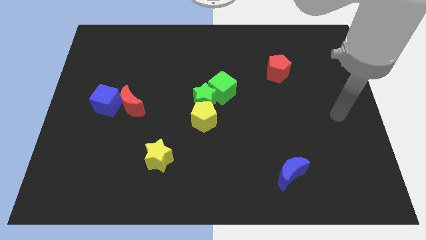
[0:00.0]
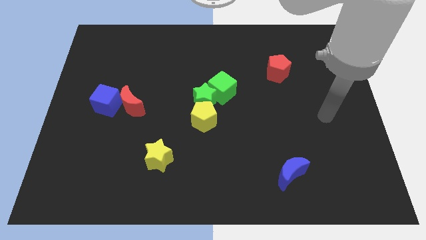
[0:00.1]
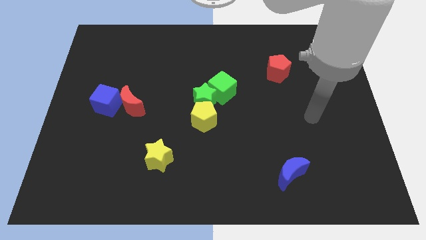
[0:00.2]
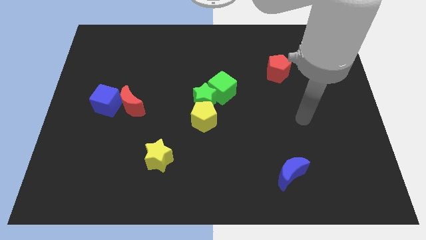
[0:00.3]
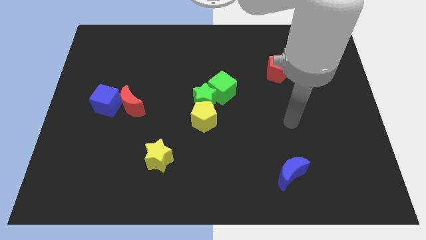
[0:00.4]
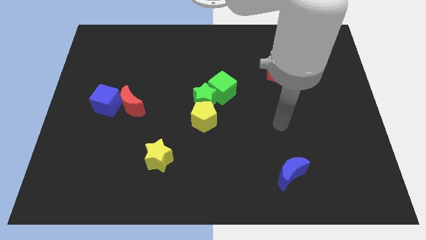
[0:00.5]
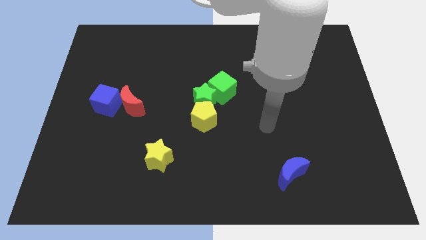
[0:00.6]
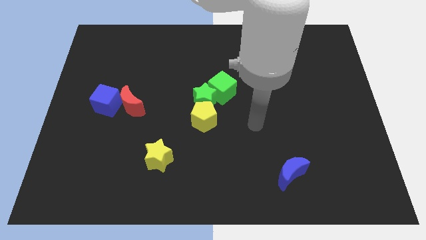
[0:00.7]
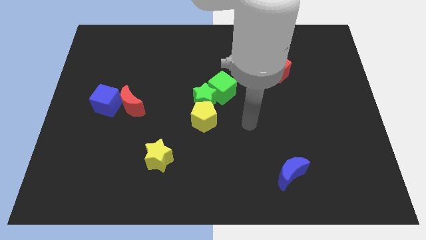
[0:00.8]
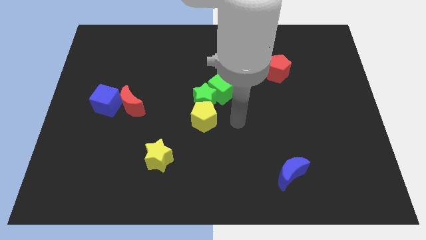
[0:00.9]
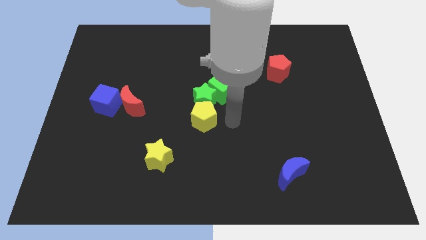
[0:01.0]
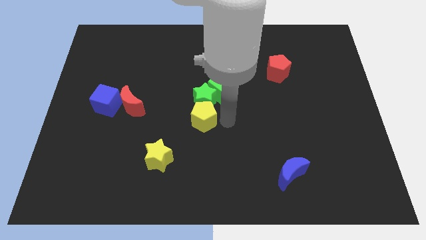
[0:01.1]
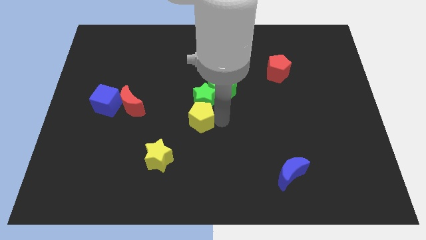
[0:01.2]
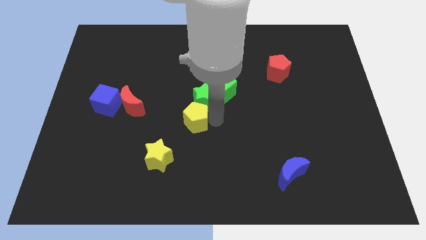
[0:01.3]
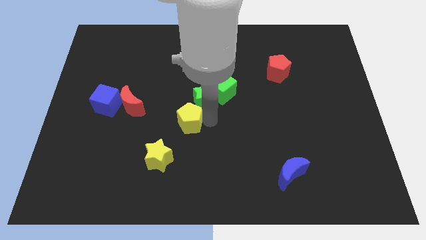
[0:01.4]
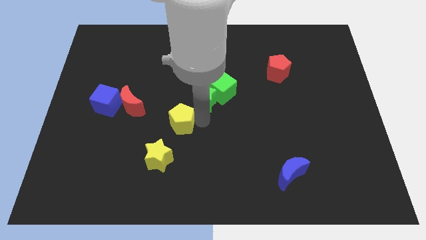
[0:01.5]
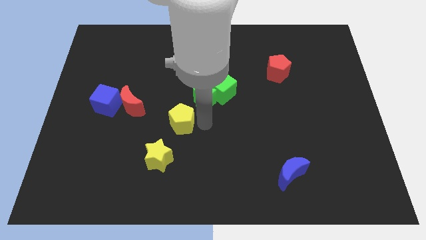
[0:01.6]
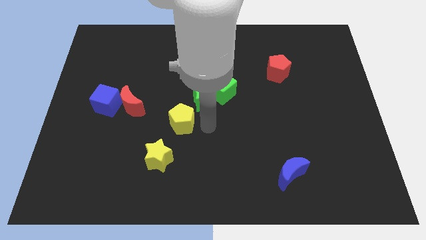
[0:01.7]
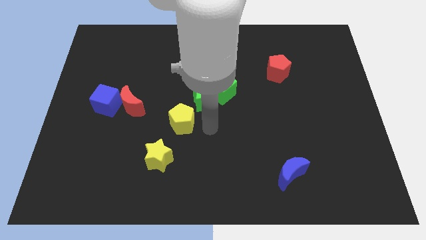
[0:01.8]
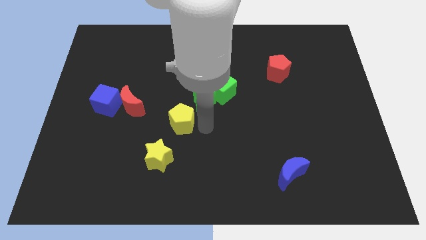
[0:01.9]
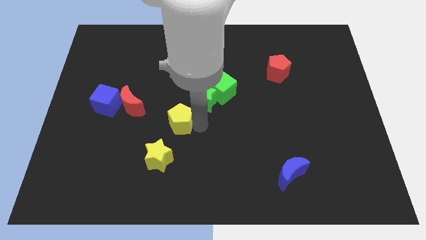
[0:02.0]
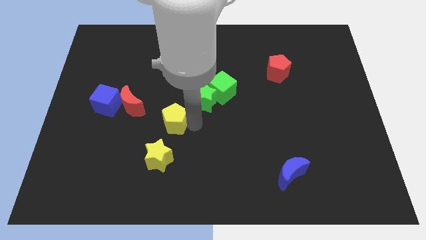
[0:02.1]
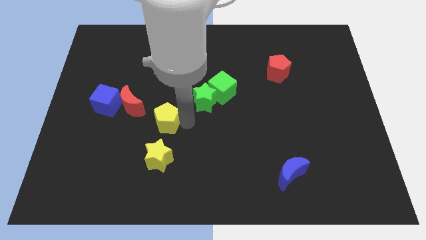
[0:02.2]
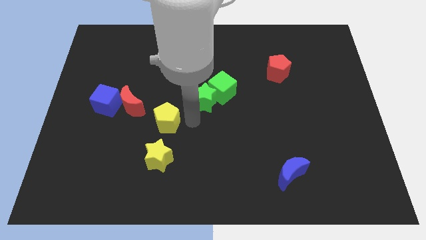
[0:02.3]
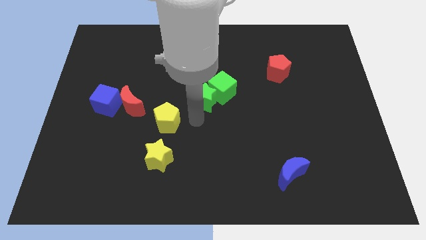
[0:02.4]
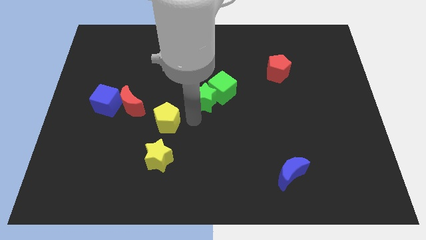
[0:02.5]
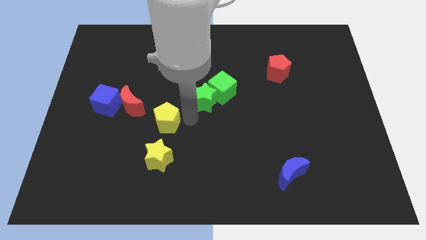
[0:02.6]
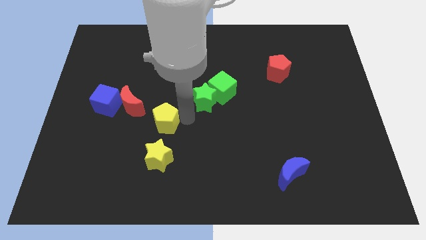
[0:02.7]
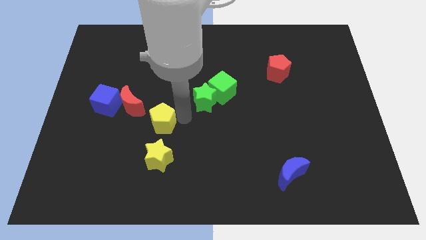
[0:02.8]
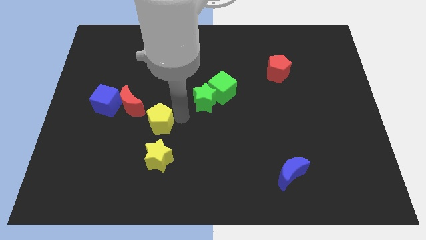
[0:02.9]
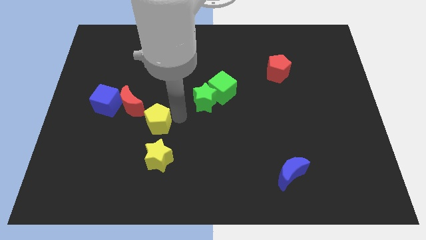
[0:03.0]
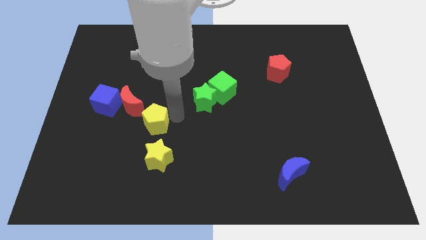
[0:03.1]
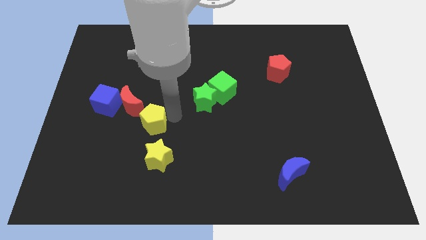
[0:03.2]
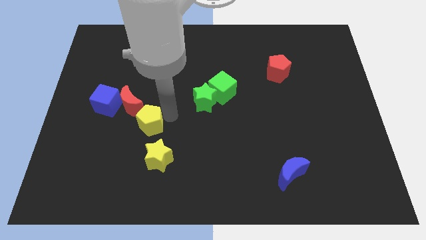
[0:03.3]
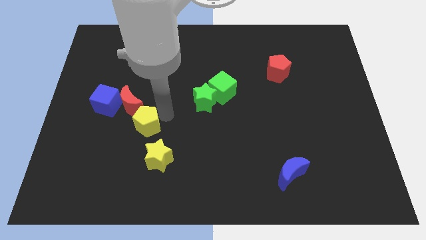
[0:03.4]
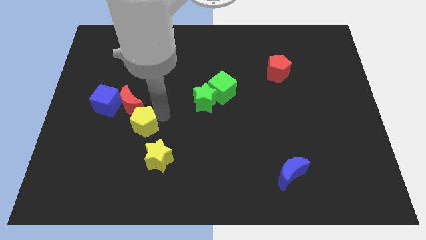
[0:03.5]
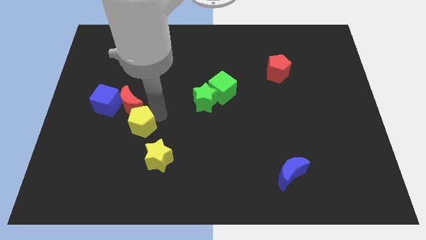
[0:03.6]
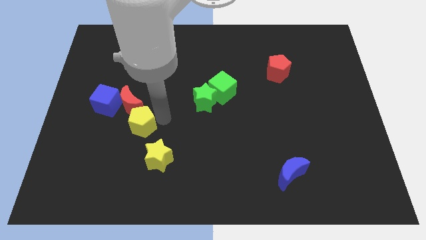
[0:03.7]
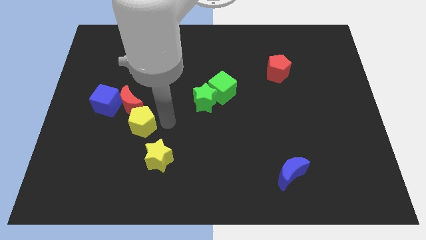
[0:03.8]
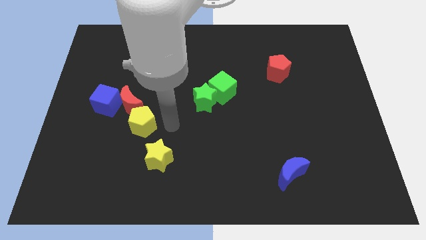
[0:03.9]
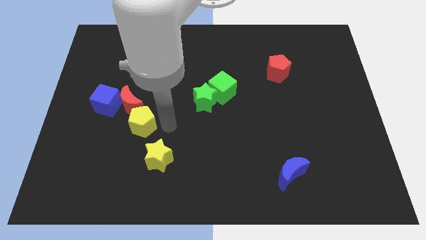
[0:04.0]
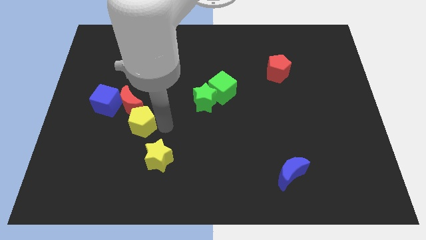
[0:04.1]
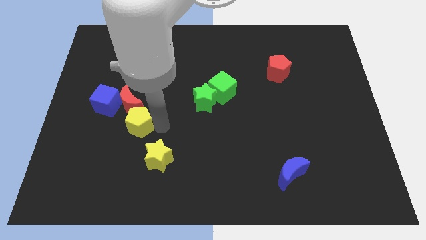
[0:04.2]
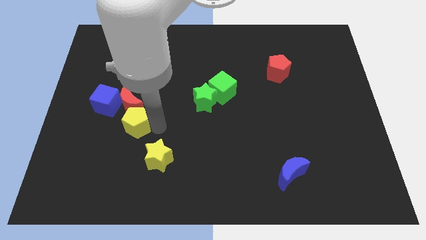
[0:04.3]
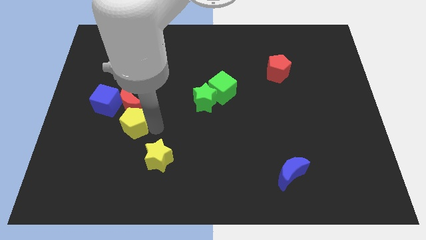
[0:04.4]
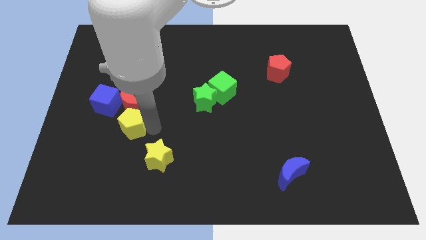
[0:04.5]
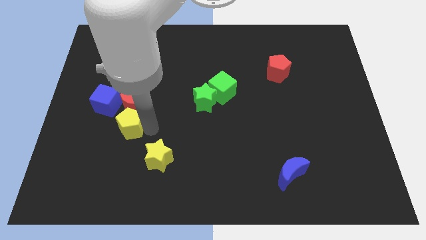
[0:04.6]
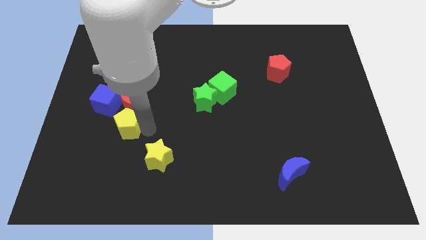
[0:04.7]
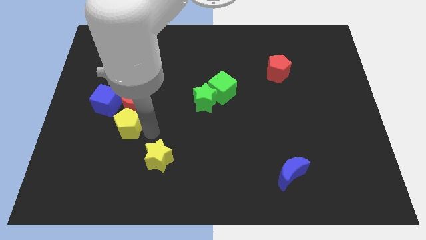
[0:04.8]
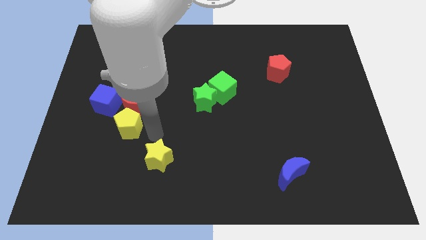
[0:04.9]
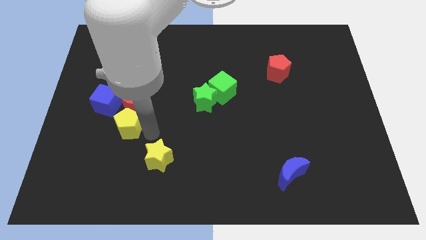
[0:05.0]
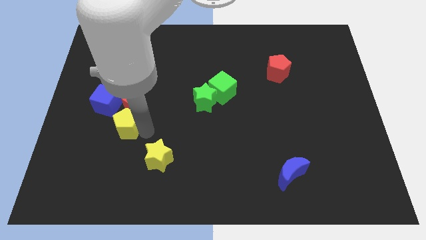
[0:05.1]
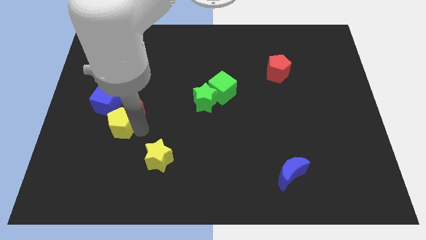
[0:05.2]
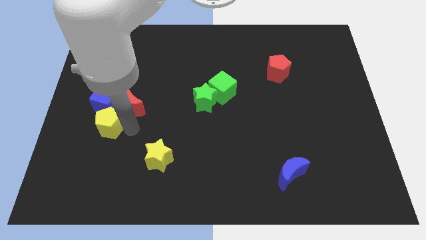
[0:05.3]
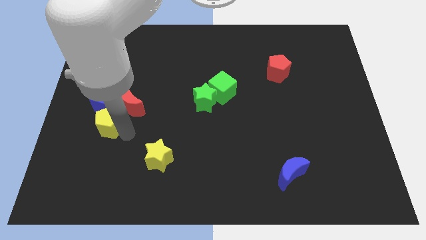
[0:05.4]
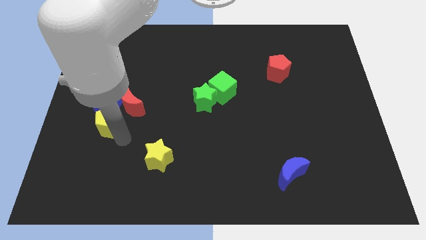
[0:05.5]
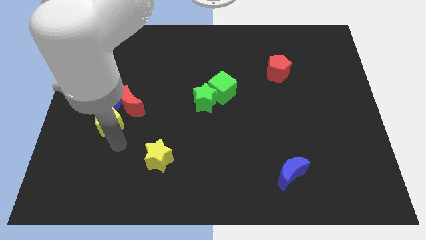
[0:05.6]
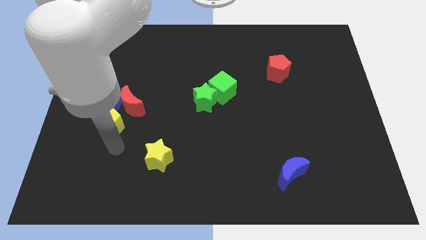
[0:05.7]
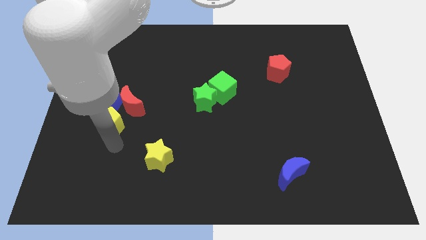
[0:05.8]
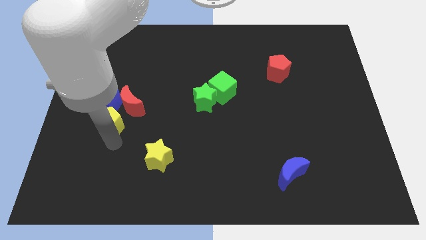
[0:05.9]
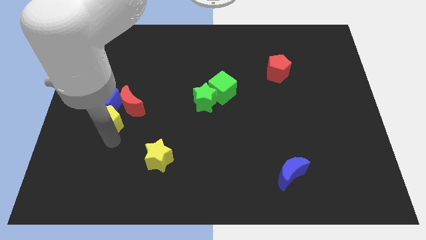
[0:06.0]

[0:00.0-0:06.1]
move the yellow pentagon close to the blue cube

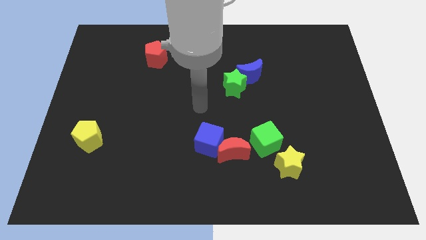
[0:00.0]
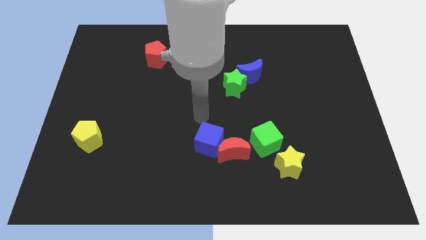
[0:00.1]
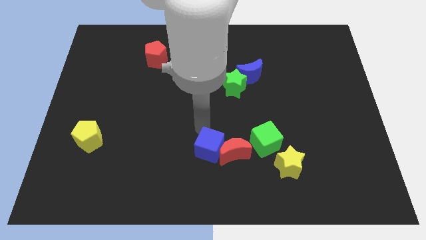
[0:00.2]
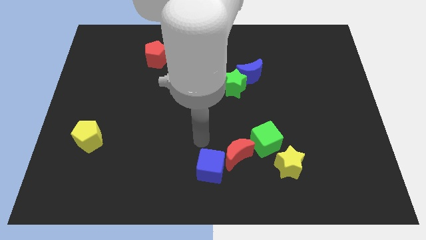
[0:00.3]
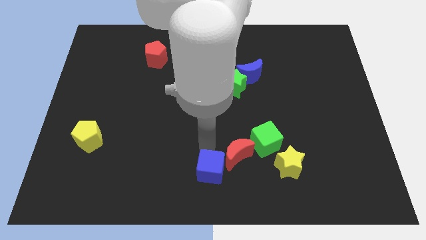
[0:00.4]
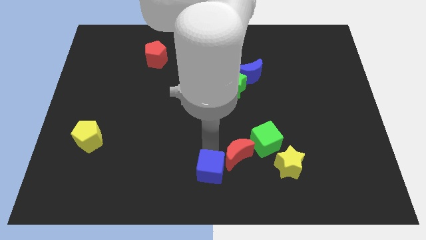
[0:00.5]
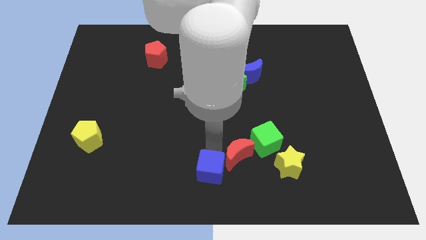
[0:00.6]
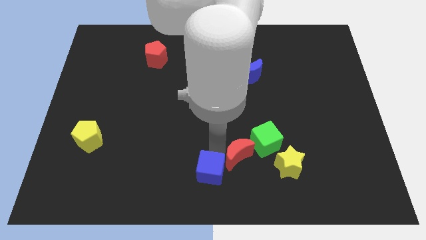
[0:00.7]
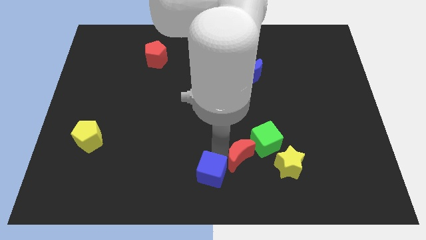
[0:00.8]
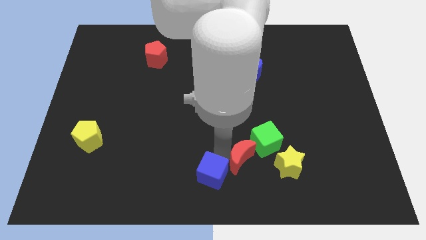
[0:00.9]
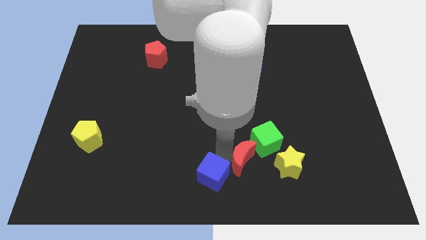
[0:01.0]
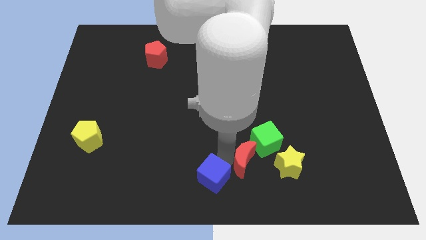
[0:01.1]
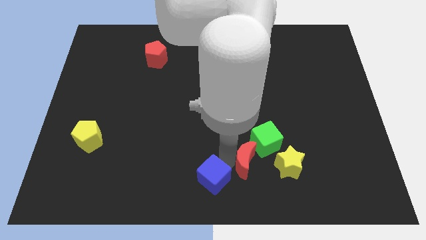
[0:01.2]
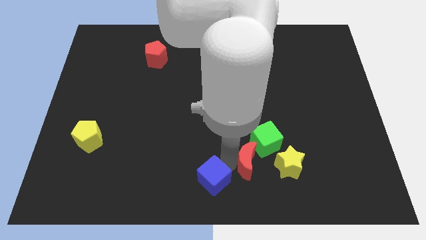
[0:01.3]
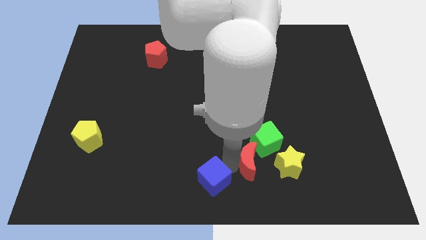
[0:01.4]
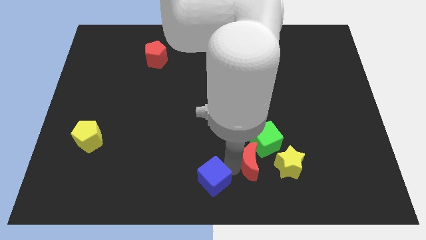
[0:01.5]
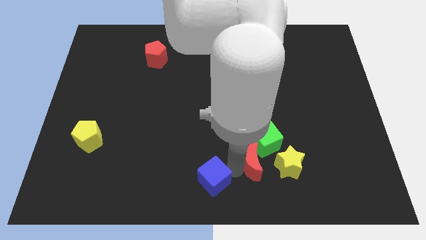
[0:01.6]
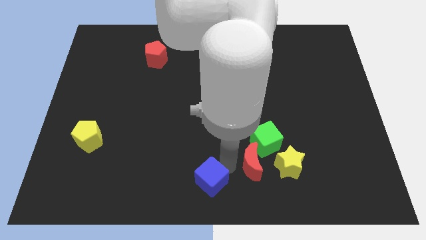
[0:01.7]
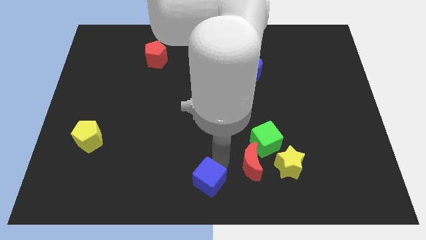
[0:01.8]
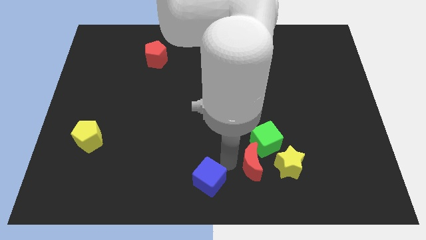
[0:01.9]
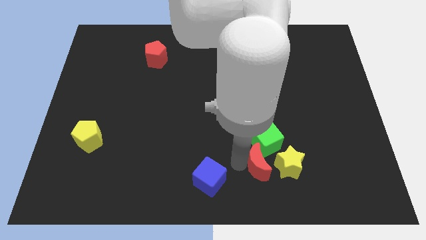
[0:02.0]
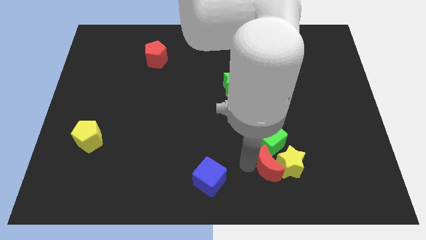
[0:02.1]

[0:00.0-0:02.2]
move the red moon next to the yellow star
